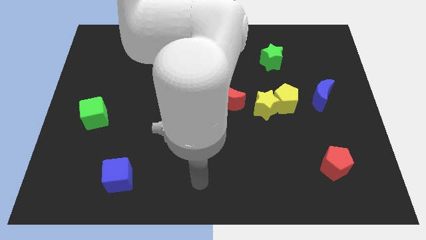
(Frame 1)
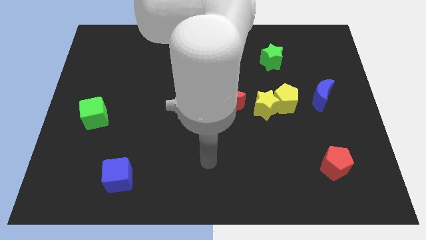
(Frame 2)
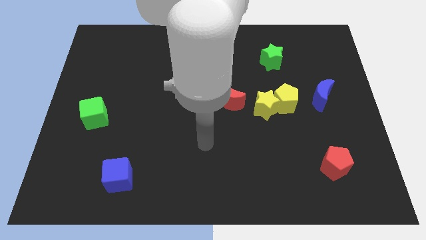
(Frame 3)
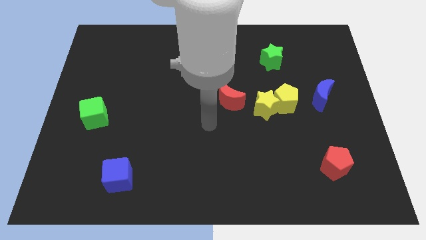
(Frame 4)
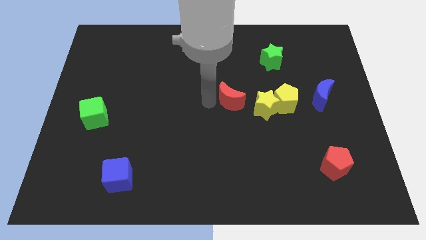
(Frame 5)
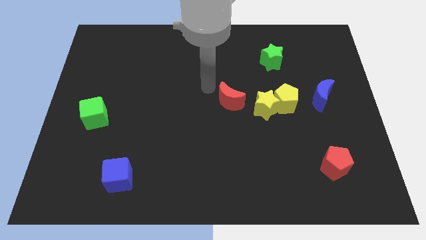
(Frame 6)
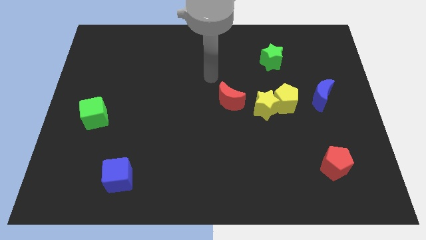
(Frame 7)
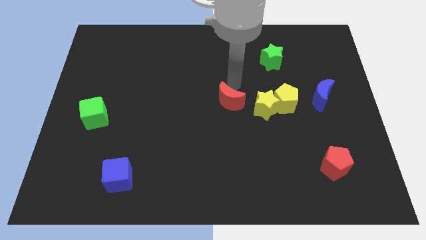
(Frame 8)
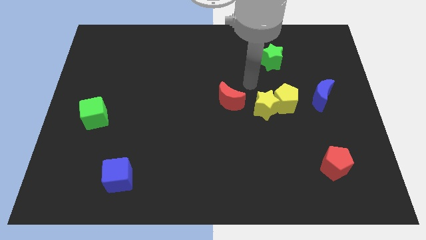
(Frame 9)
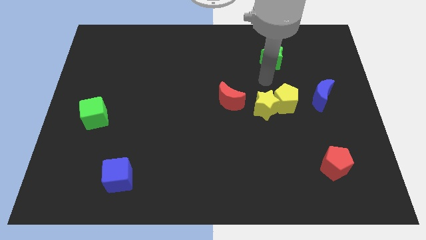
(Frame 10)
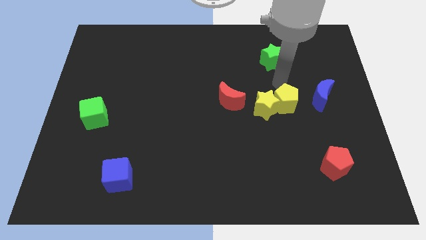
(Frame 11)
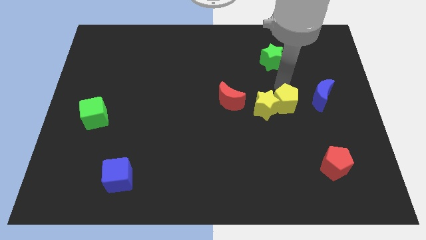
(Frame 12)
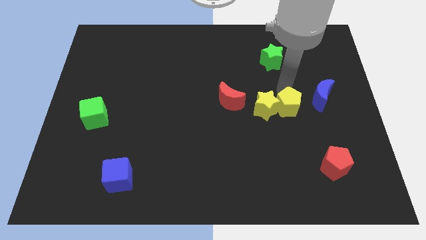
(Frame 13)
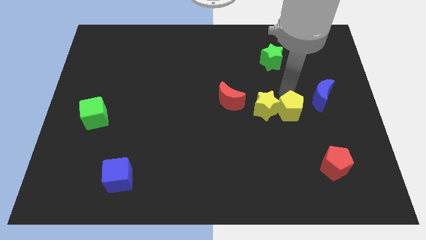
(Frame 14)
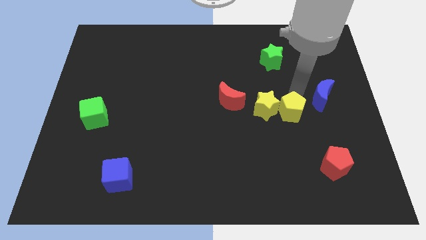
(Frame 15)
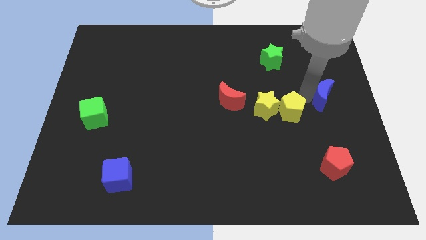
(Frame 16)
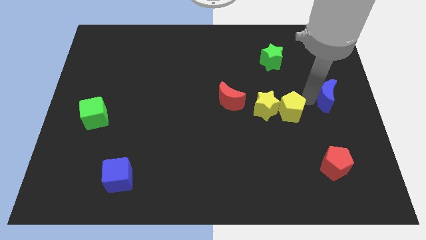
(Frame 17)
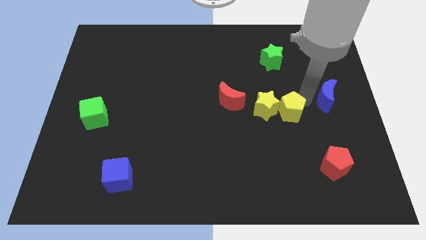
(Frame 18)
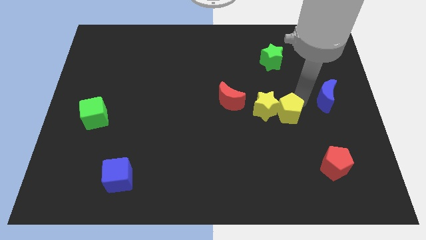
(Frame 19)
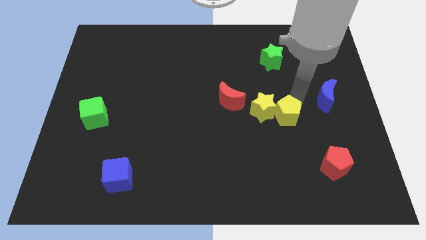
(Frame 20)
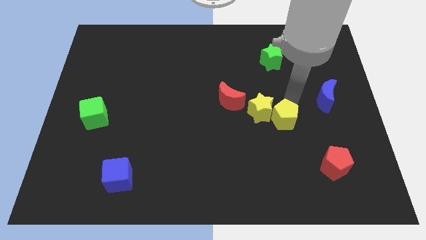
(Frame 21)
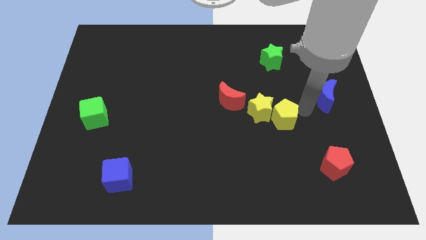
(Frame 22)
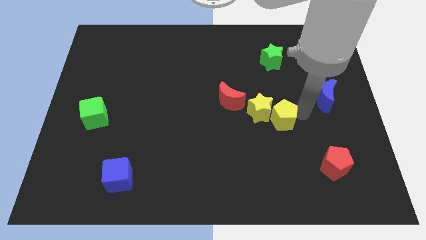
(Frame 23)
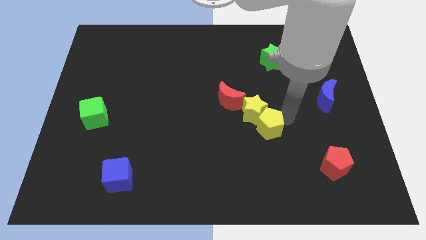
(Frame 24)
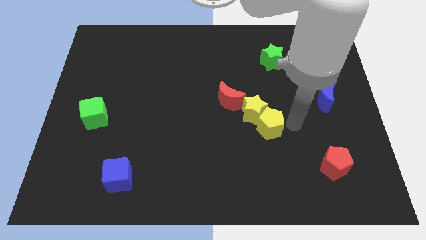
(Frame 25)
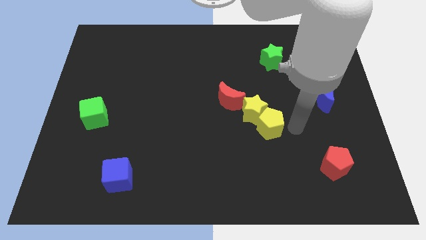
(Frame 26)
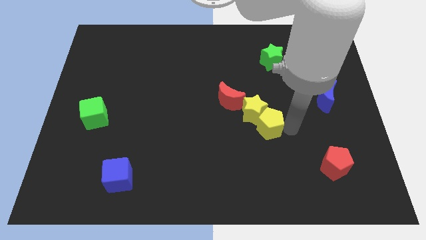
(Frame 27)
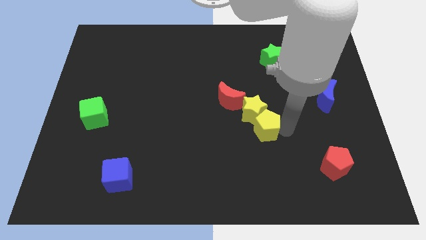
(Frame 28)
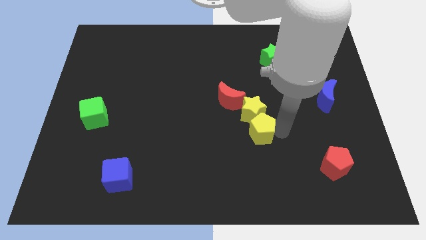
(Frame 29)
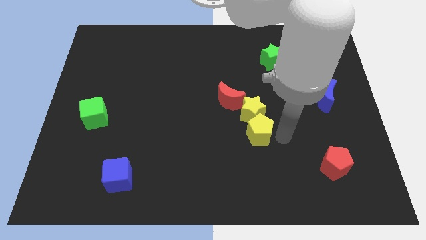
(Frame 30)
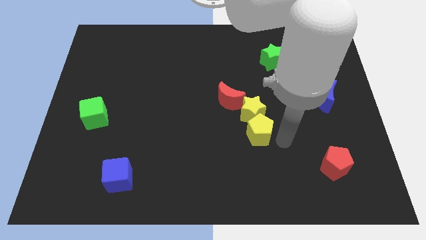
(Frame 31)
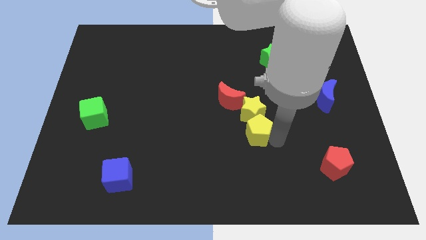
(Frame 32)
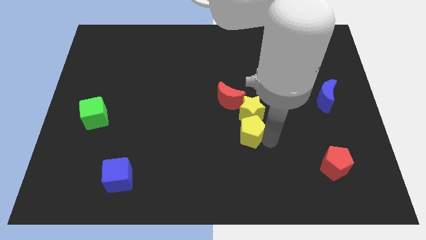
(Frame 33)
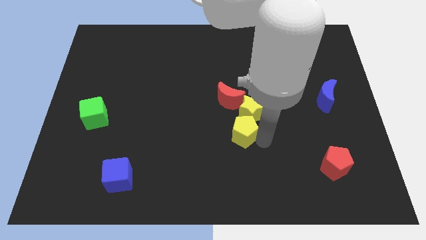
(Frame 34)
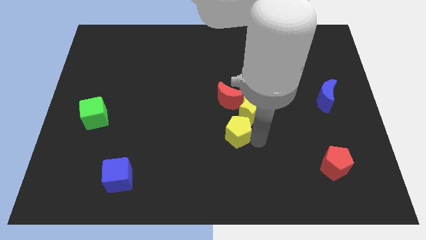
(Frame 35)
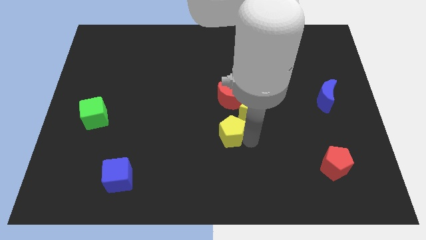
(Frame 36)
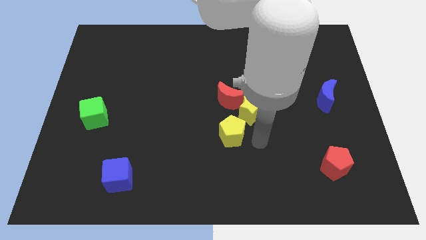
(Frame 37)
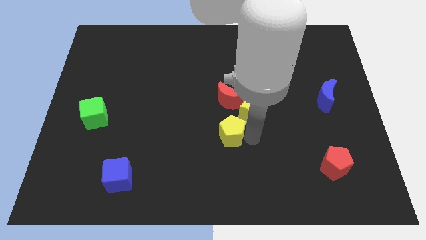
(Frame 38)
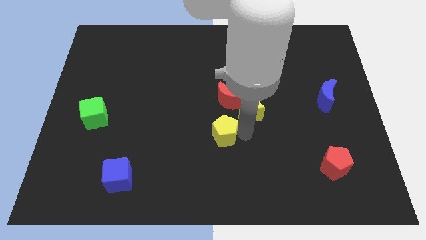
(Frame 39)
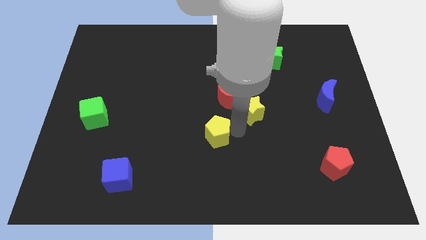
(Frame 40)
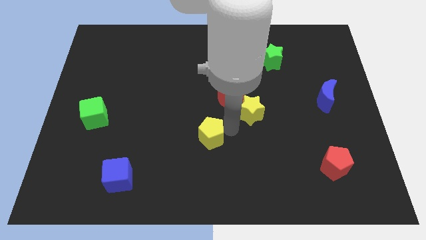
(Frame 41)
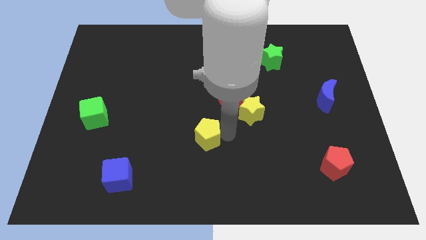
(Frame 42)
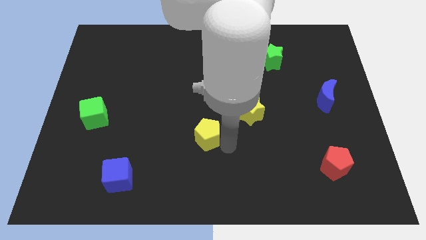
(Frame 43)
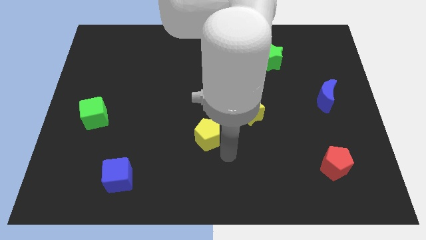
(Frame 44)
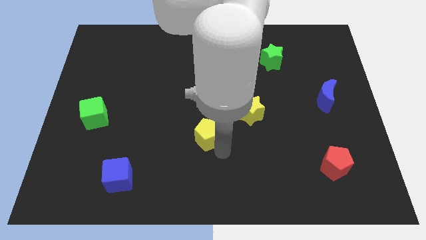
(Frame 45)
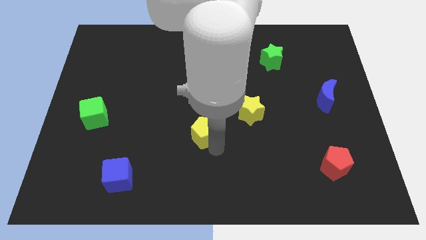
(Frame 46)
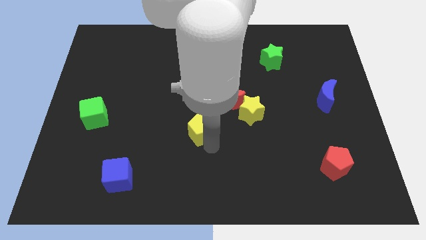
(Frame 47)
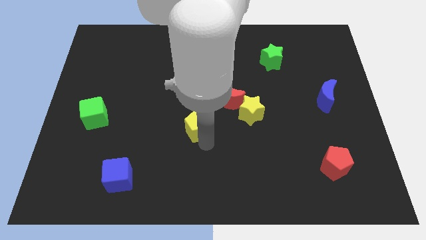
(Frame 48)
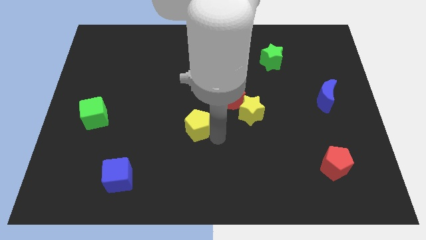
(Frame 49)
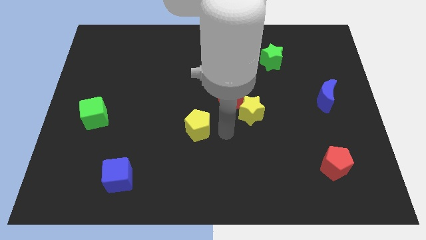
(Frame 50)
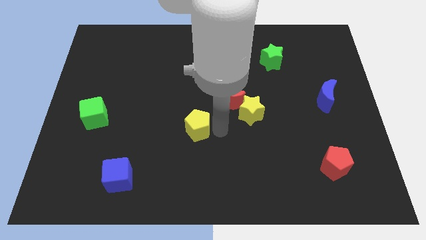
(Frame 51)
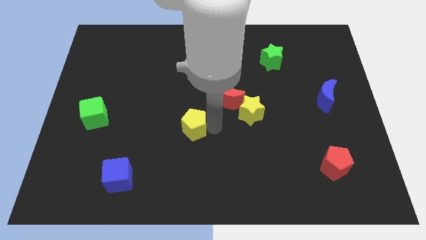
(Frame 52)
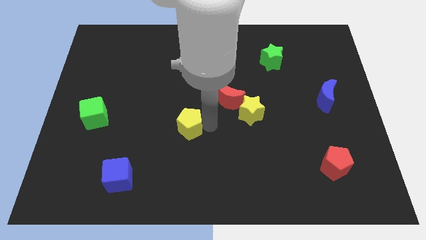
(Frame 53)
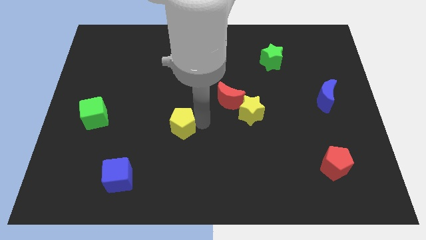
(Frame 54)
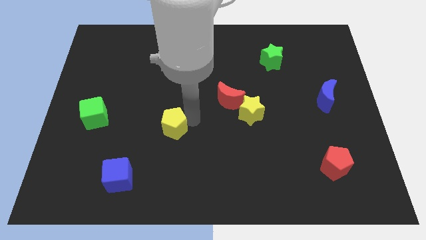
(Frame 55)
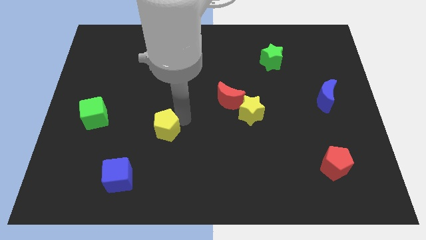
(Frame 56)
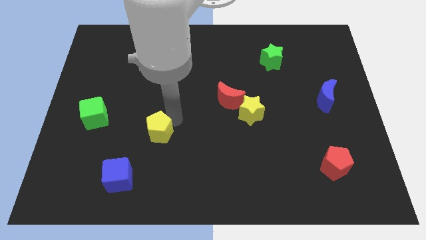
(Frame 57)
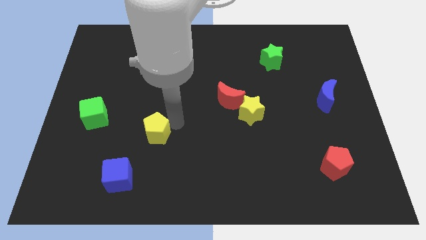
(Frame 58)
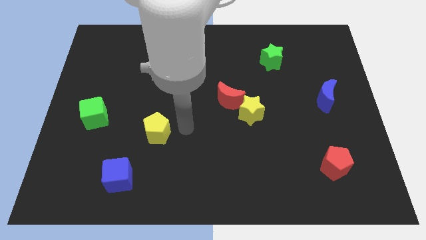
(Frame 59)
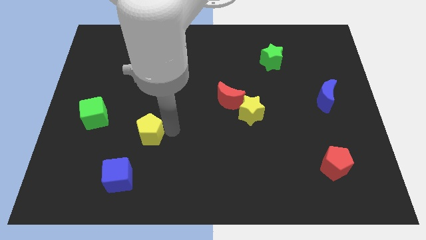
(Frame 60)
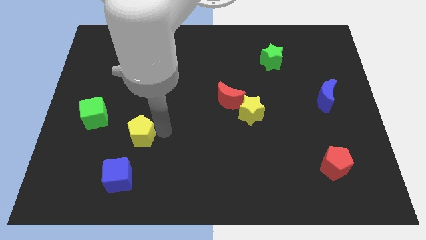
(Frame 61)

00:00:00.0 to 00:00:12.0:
slide the yellow pentagon to the top of the blue cube
